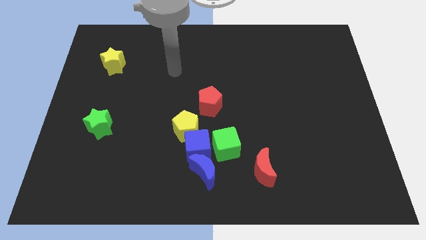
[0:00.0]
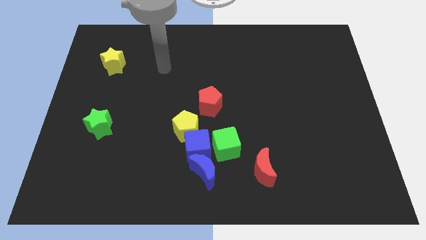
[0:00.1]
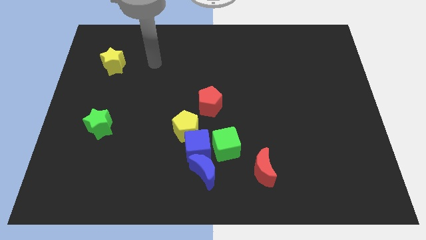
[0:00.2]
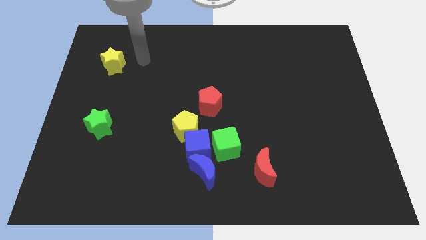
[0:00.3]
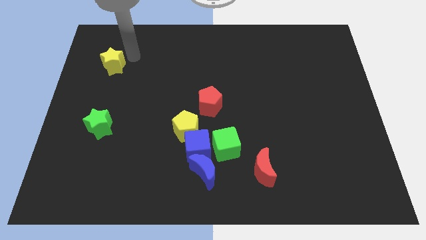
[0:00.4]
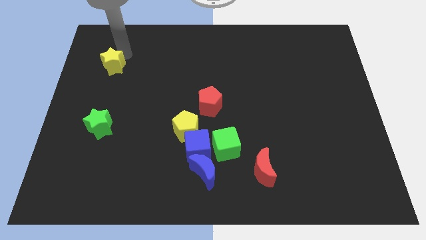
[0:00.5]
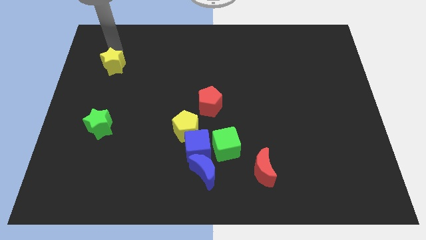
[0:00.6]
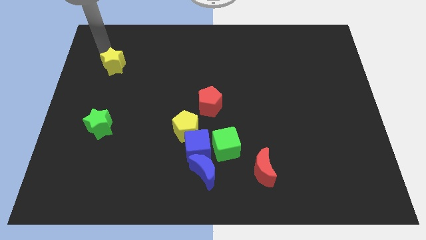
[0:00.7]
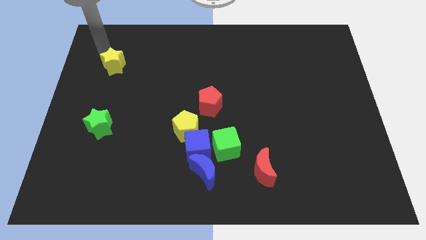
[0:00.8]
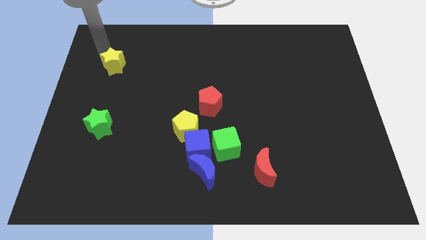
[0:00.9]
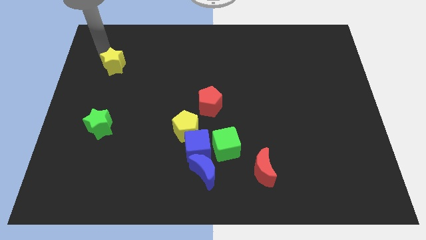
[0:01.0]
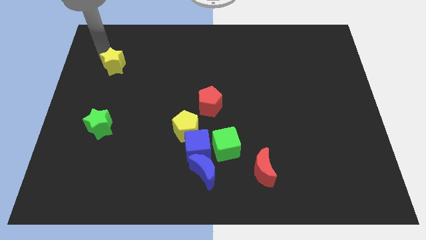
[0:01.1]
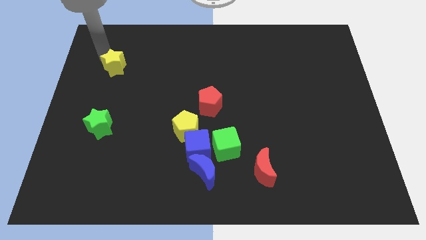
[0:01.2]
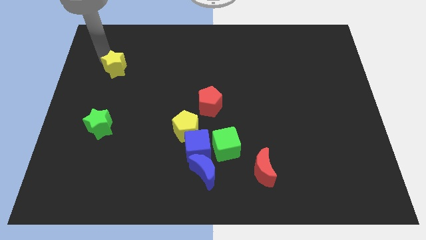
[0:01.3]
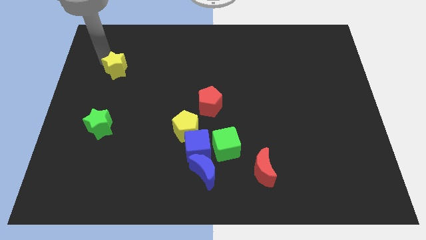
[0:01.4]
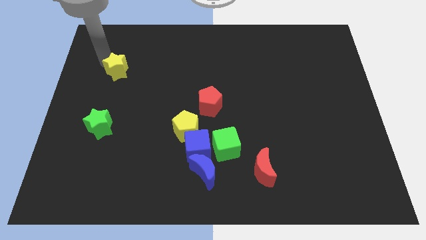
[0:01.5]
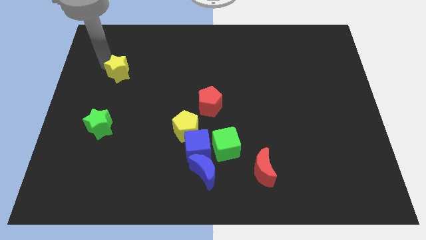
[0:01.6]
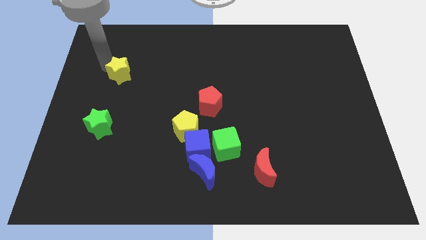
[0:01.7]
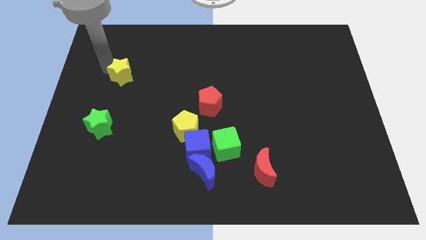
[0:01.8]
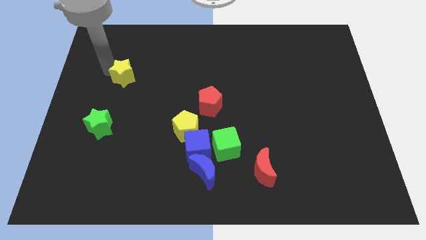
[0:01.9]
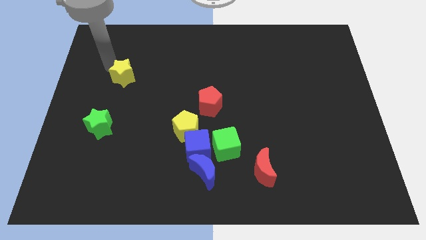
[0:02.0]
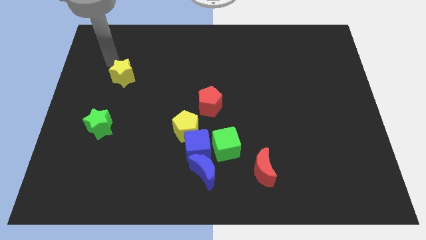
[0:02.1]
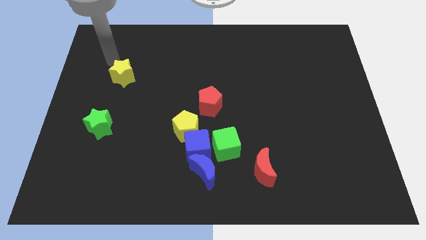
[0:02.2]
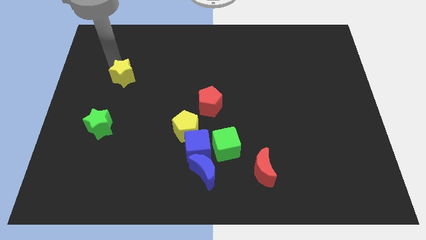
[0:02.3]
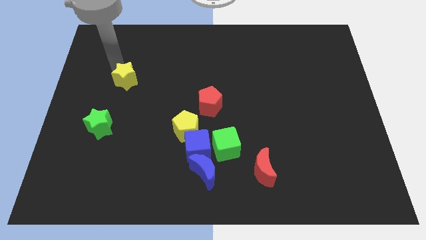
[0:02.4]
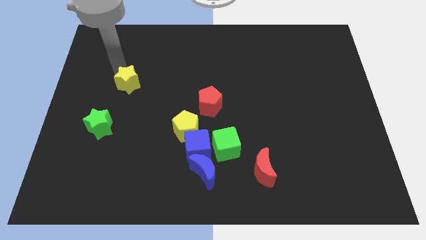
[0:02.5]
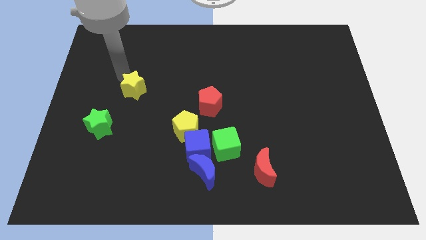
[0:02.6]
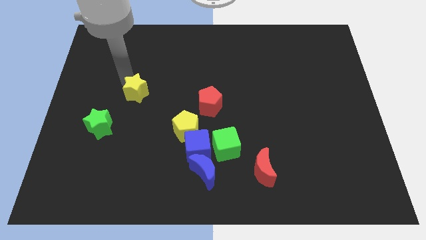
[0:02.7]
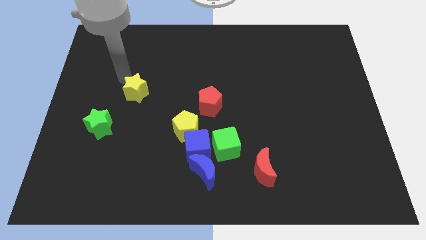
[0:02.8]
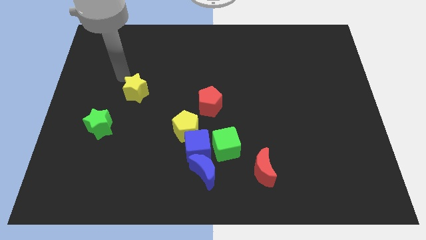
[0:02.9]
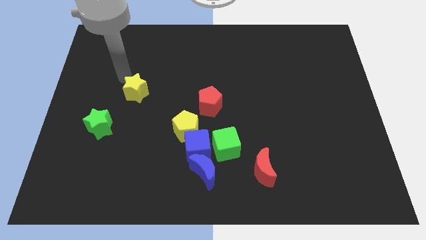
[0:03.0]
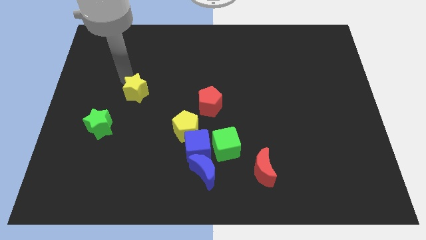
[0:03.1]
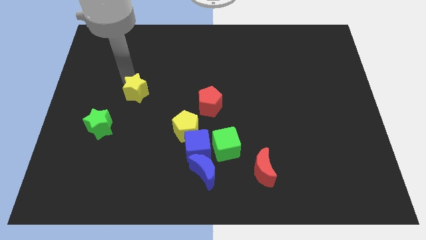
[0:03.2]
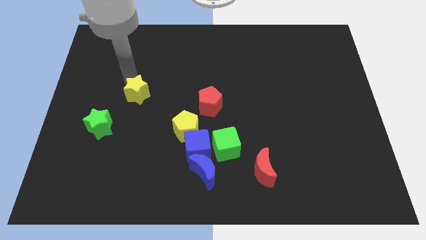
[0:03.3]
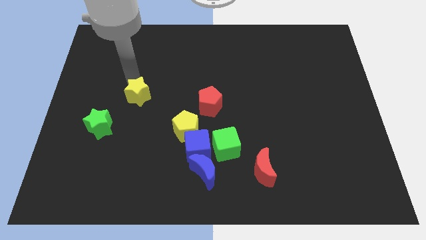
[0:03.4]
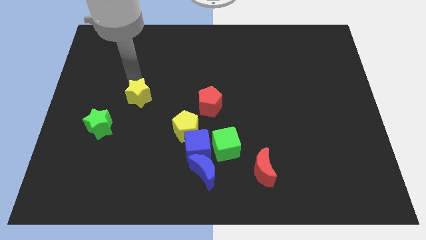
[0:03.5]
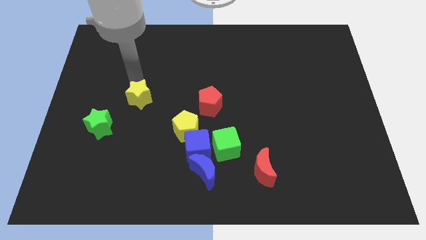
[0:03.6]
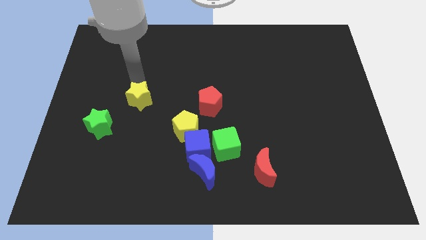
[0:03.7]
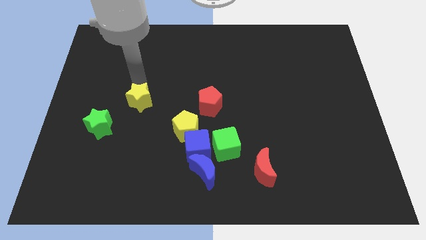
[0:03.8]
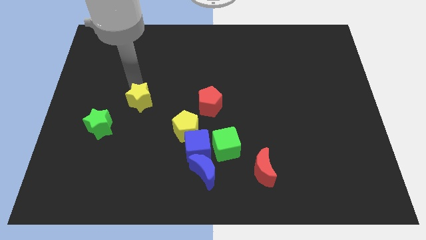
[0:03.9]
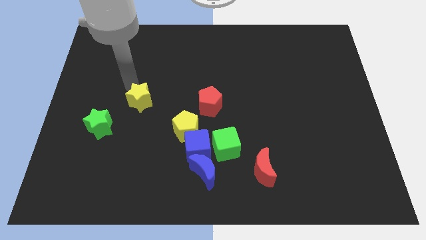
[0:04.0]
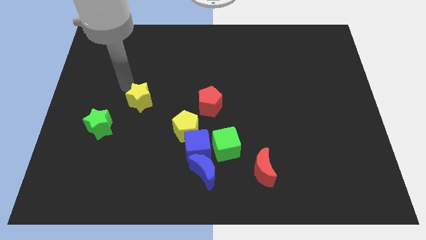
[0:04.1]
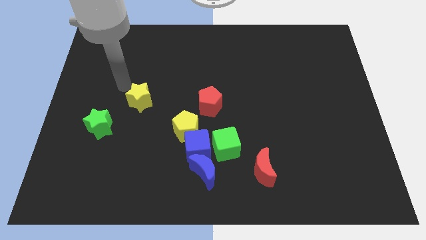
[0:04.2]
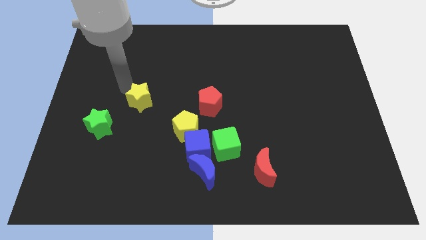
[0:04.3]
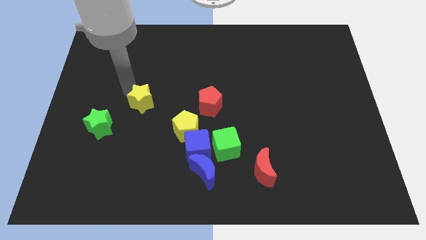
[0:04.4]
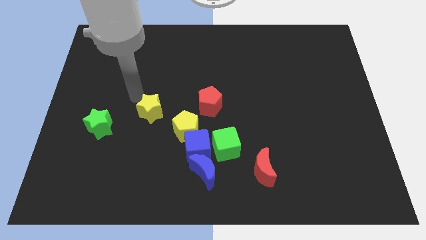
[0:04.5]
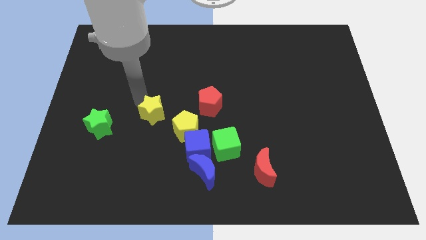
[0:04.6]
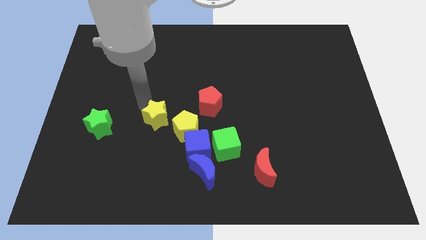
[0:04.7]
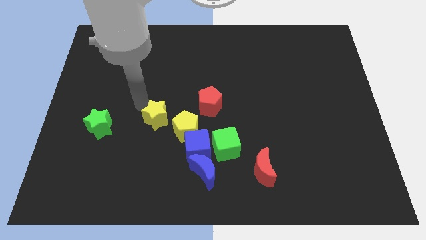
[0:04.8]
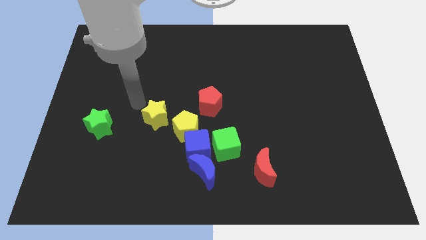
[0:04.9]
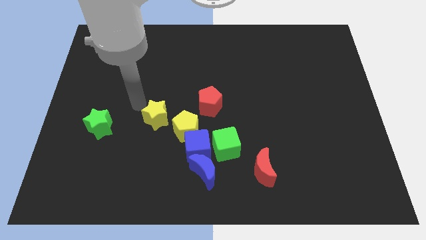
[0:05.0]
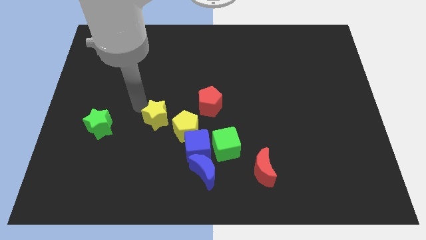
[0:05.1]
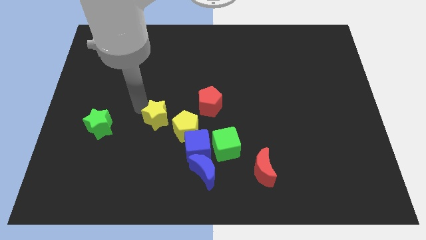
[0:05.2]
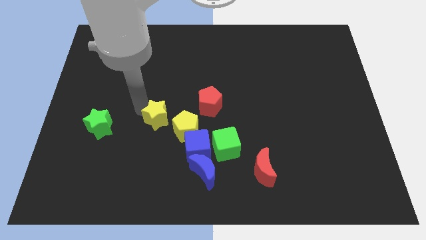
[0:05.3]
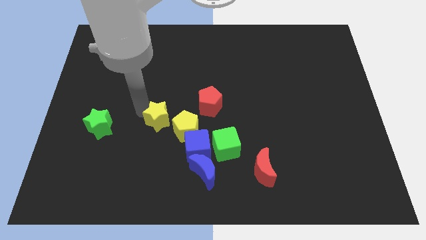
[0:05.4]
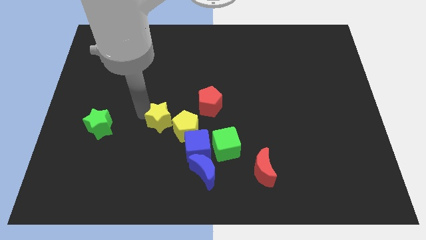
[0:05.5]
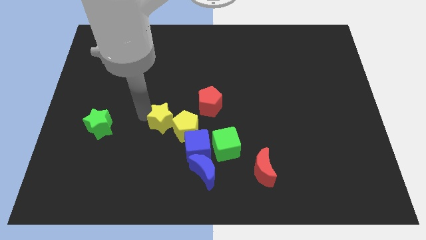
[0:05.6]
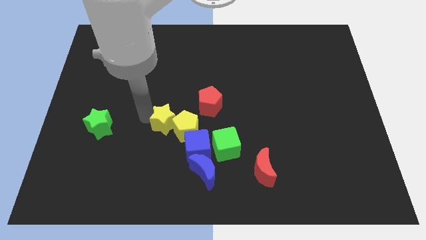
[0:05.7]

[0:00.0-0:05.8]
slide the yellow star close to the yellow pentagon
